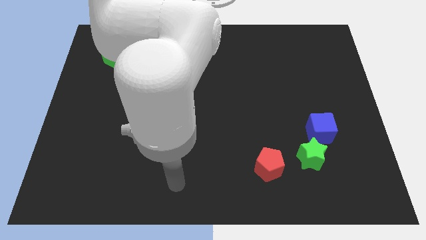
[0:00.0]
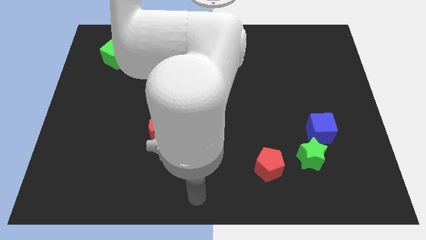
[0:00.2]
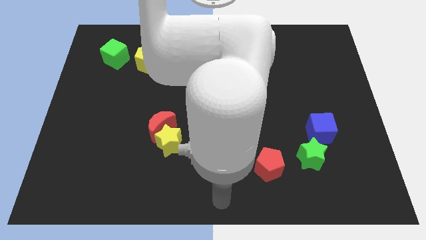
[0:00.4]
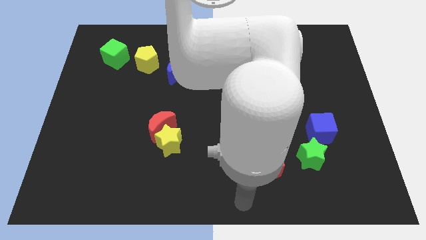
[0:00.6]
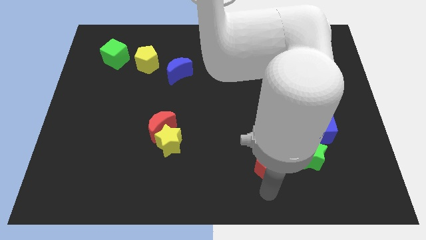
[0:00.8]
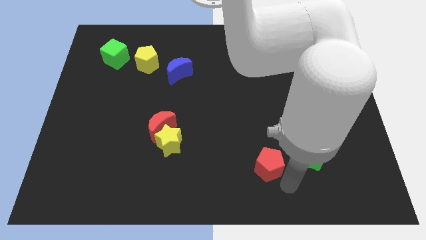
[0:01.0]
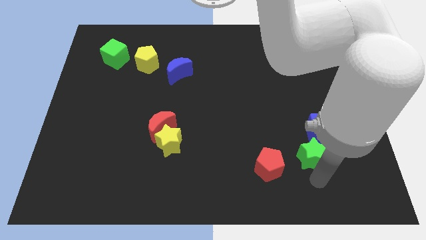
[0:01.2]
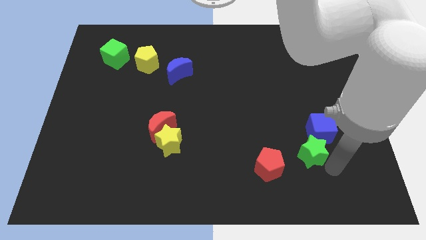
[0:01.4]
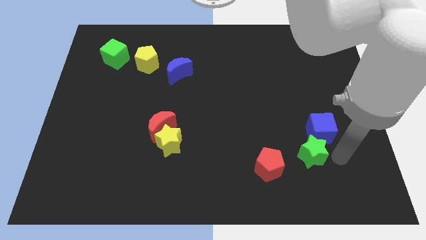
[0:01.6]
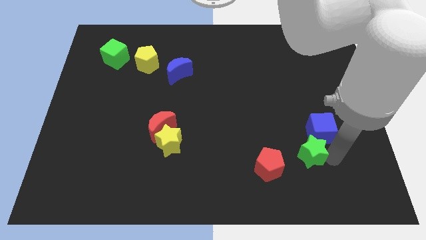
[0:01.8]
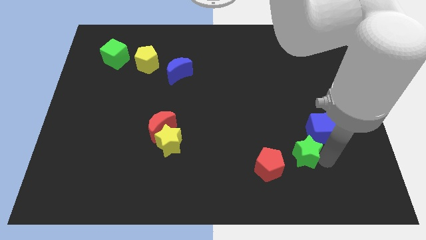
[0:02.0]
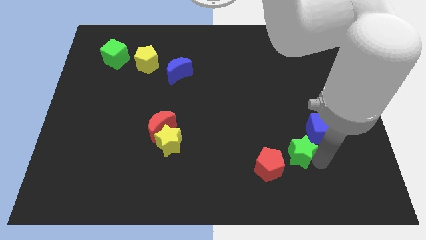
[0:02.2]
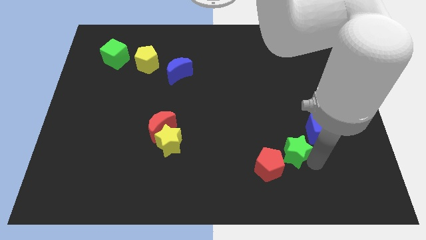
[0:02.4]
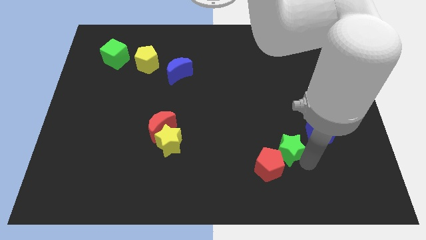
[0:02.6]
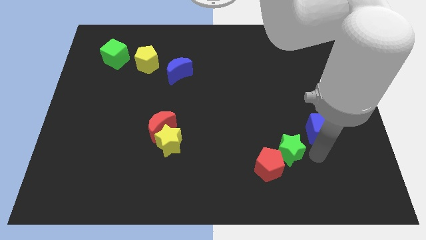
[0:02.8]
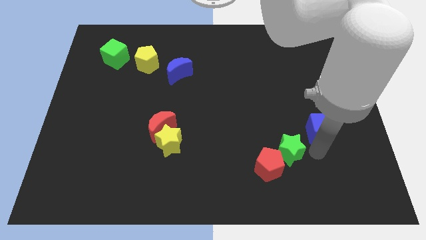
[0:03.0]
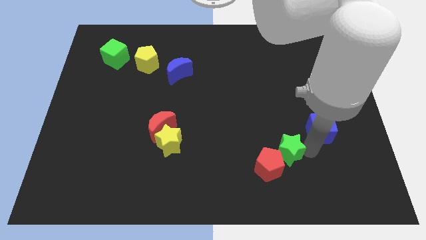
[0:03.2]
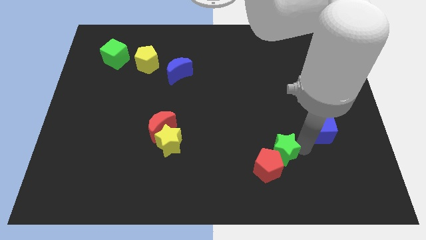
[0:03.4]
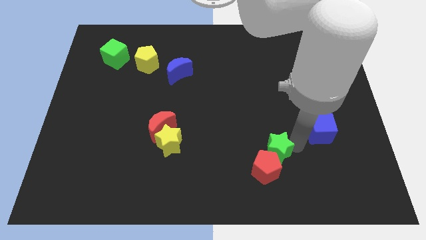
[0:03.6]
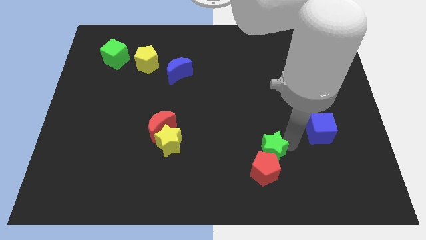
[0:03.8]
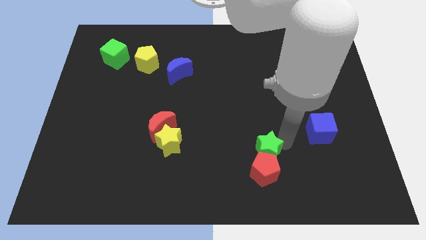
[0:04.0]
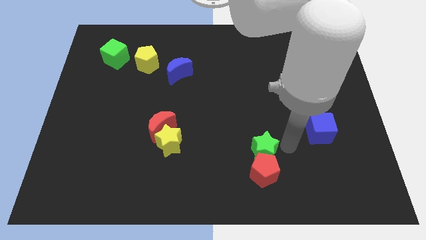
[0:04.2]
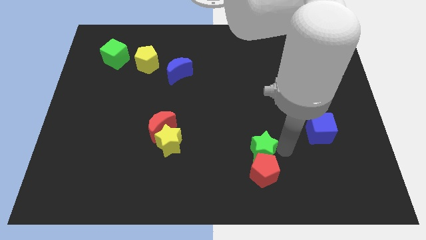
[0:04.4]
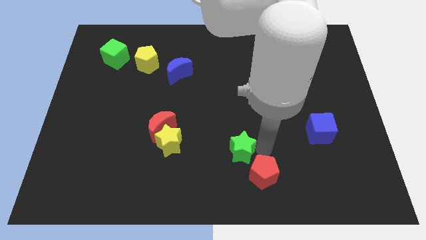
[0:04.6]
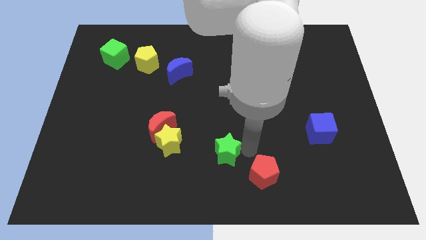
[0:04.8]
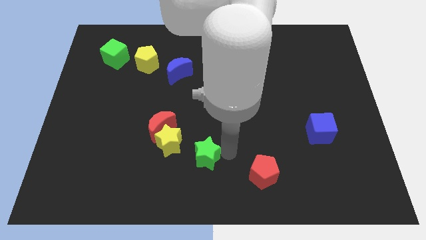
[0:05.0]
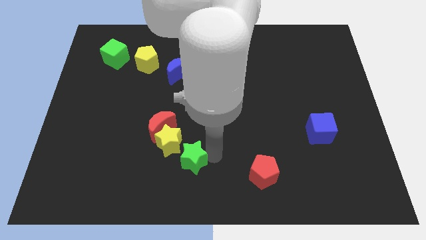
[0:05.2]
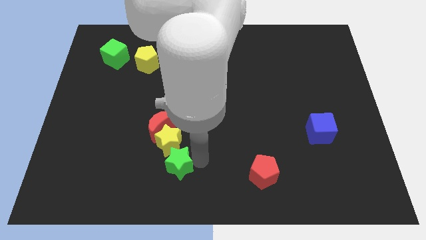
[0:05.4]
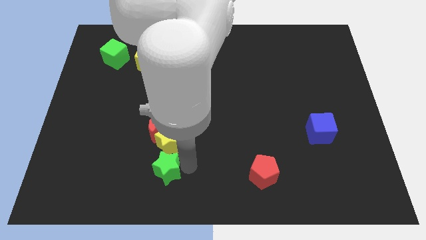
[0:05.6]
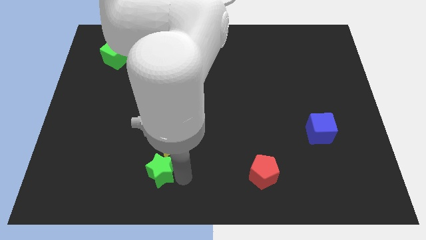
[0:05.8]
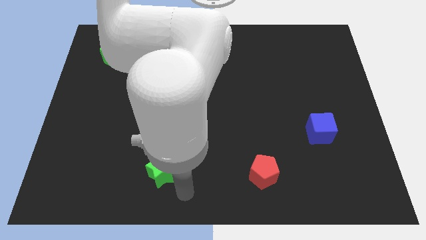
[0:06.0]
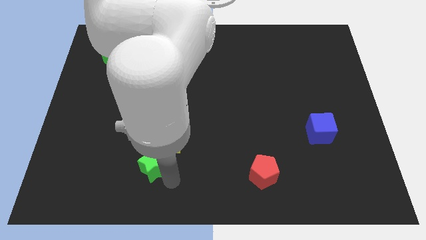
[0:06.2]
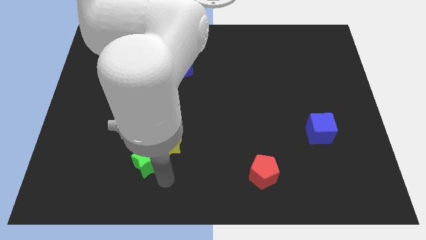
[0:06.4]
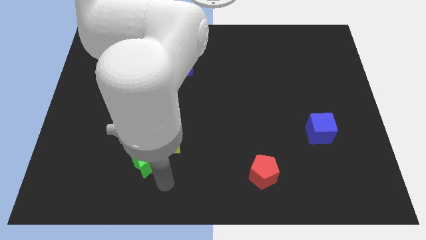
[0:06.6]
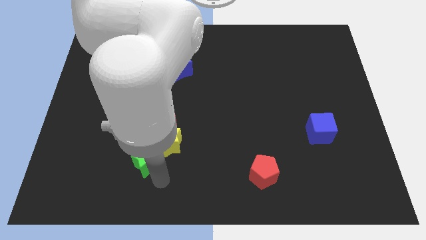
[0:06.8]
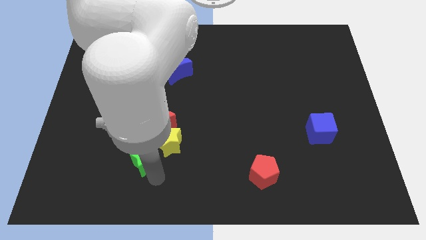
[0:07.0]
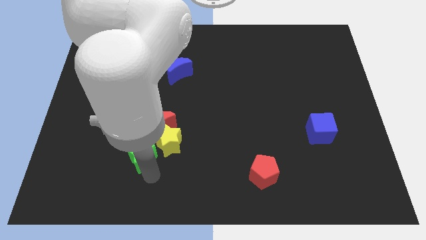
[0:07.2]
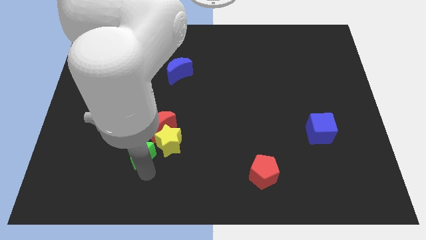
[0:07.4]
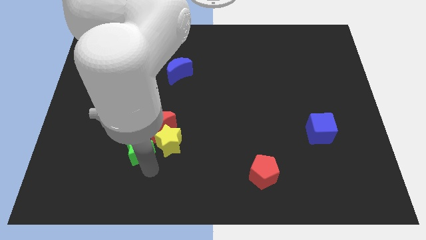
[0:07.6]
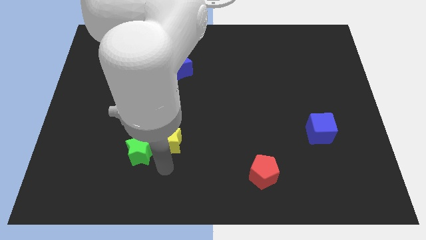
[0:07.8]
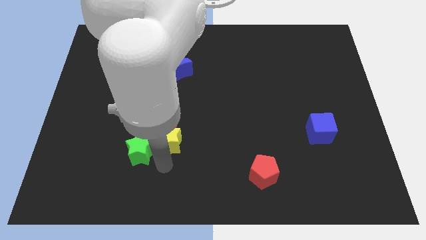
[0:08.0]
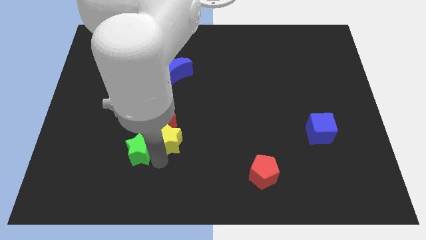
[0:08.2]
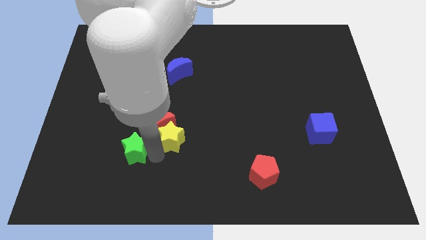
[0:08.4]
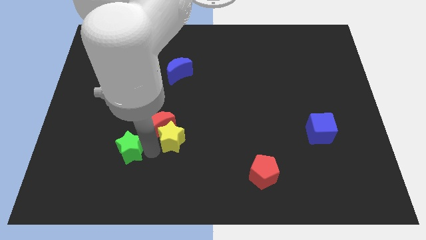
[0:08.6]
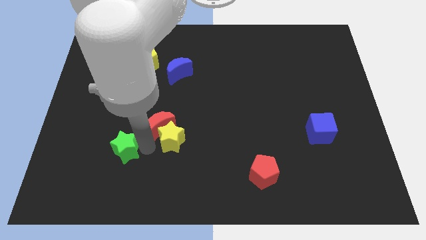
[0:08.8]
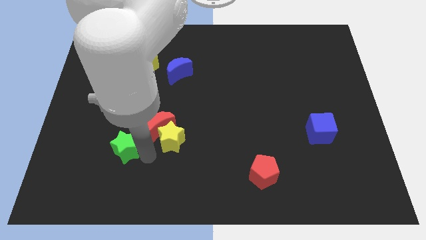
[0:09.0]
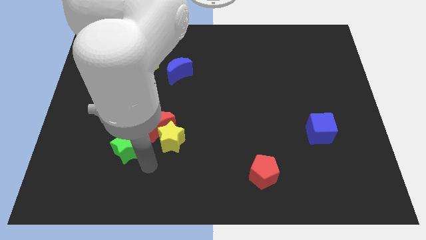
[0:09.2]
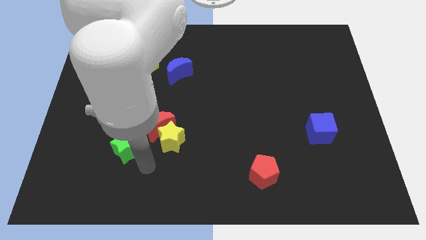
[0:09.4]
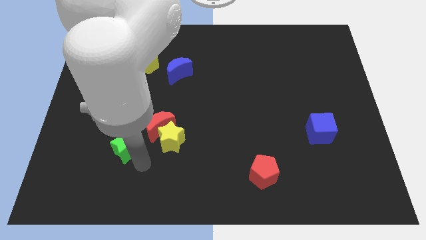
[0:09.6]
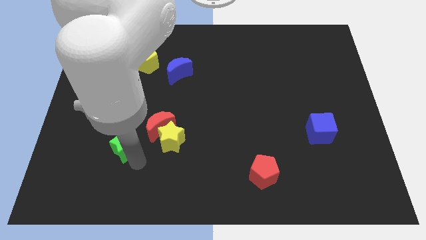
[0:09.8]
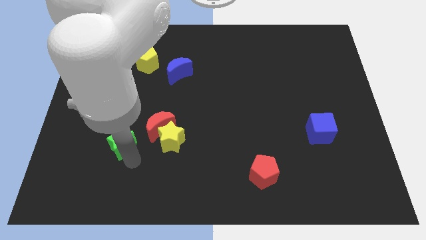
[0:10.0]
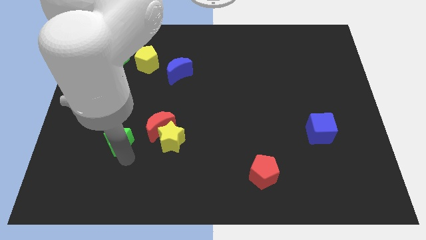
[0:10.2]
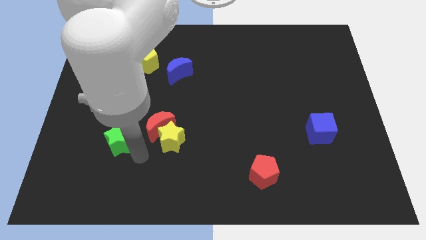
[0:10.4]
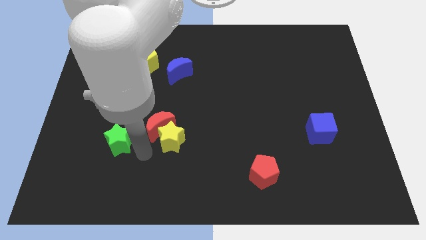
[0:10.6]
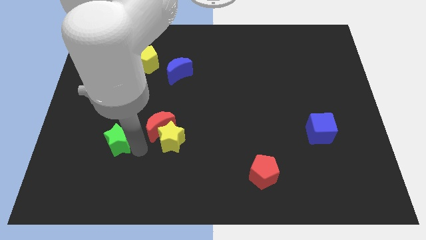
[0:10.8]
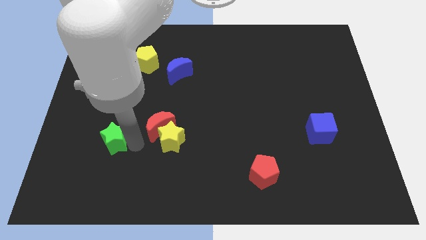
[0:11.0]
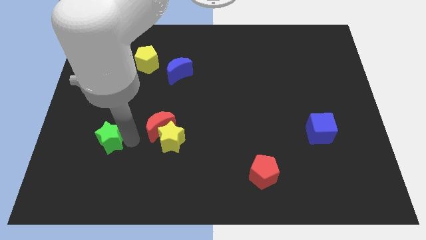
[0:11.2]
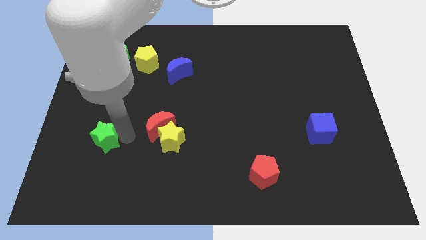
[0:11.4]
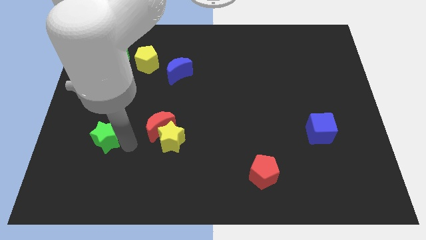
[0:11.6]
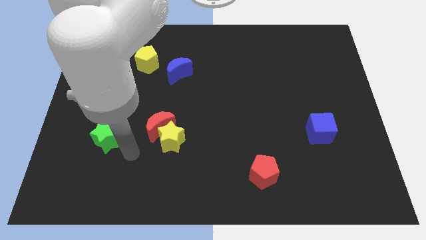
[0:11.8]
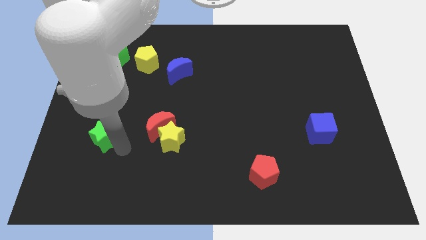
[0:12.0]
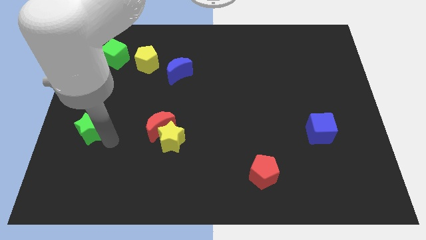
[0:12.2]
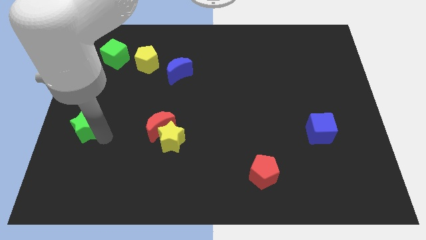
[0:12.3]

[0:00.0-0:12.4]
push the green star to the center left

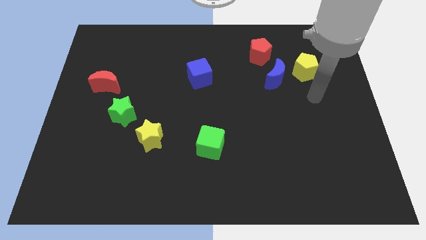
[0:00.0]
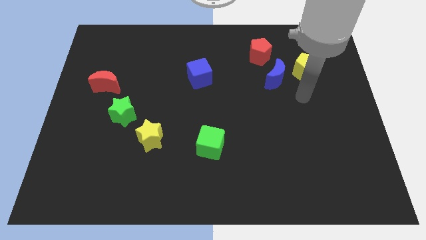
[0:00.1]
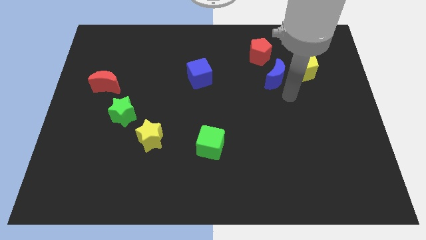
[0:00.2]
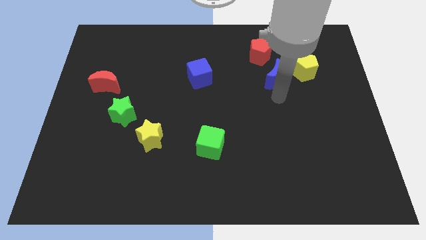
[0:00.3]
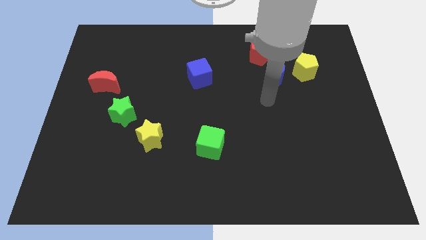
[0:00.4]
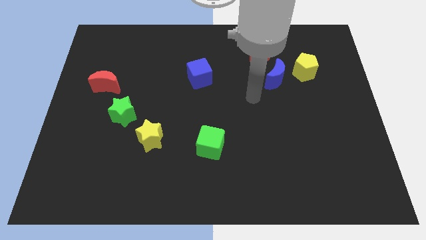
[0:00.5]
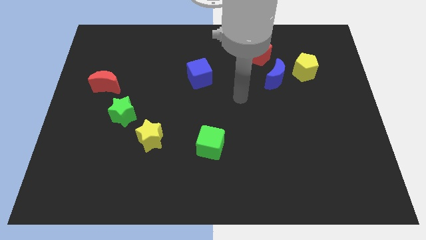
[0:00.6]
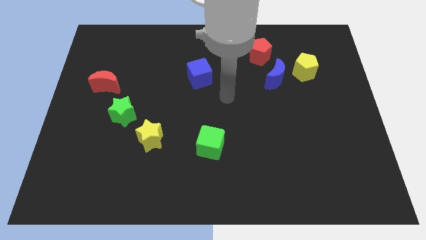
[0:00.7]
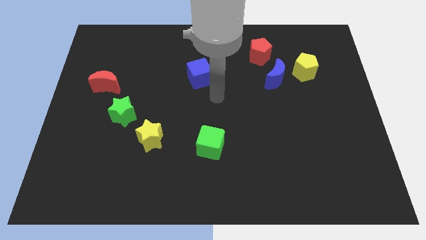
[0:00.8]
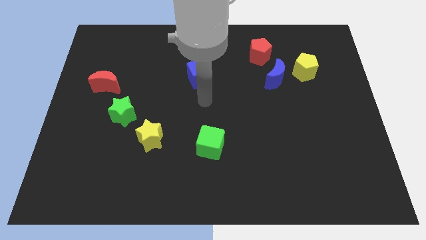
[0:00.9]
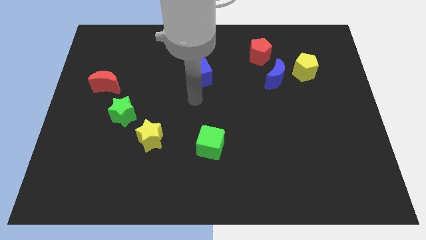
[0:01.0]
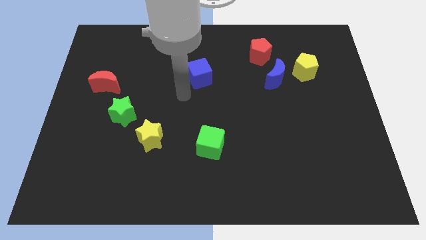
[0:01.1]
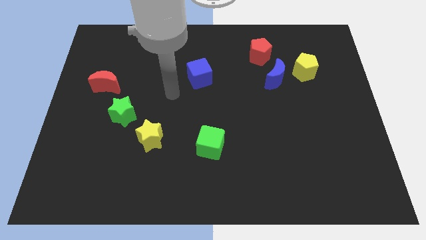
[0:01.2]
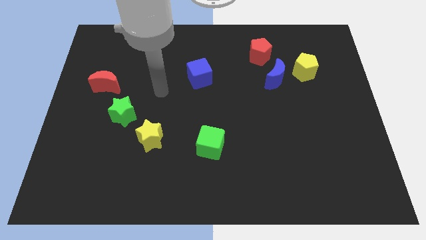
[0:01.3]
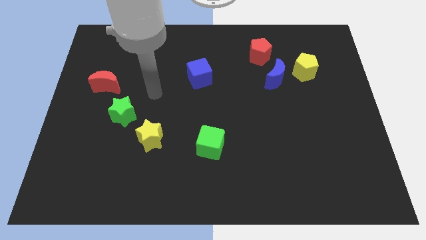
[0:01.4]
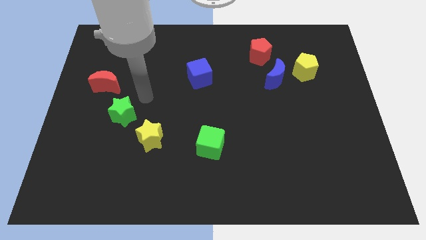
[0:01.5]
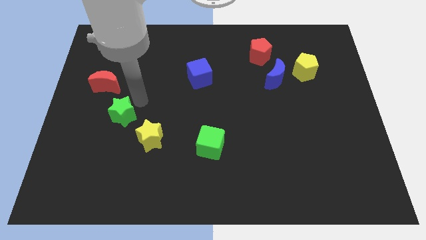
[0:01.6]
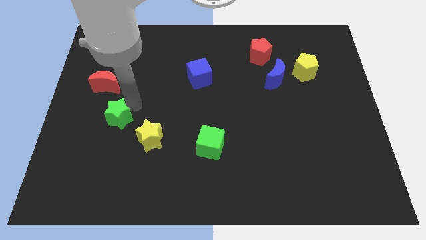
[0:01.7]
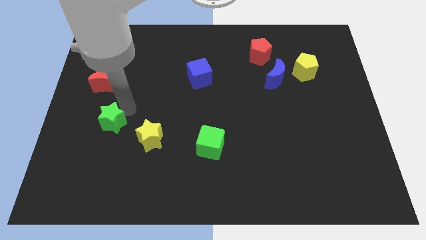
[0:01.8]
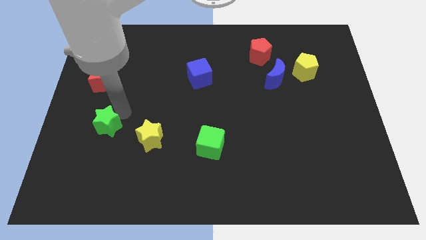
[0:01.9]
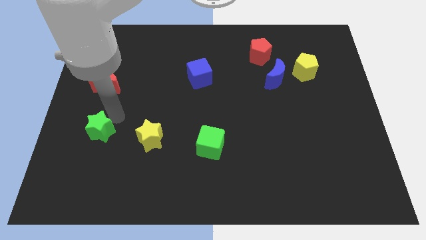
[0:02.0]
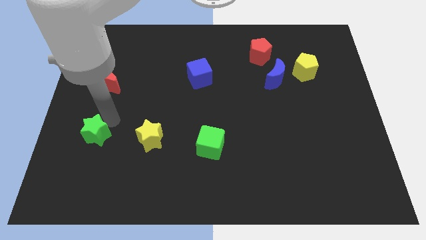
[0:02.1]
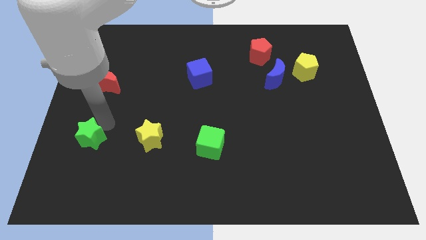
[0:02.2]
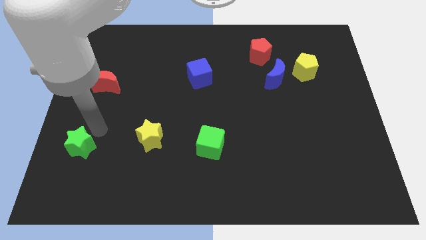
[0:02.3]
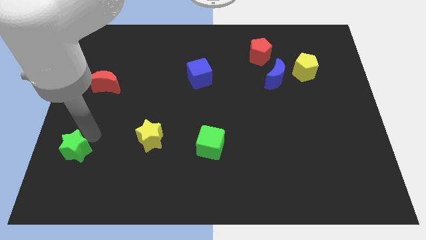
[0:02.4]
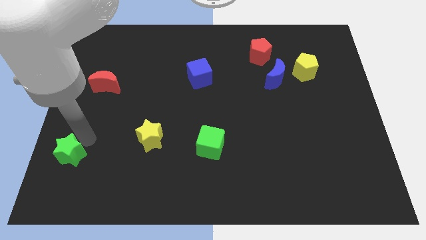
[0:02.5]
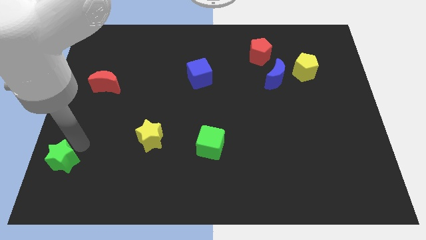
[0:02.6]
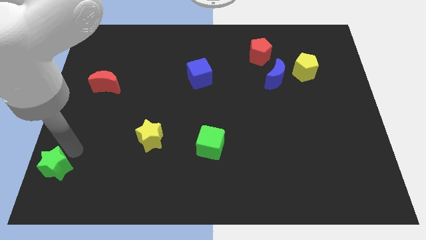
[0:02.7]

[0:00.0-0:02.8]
push the green star to the bottom left
